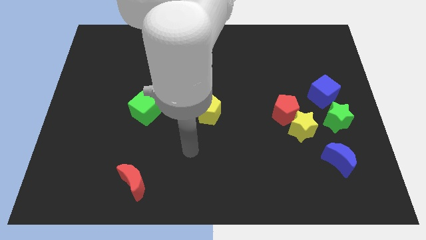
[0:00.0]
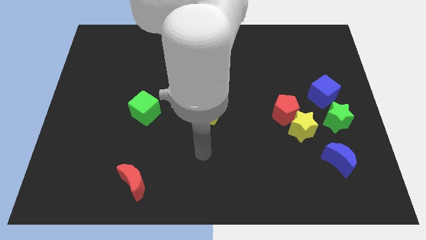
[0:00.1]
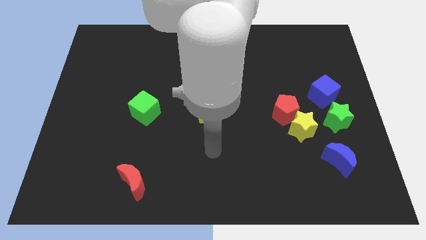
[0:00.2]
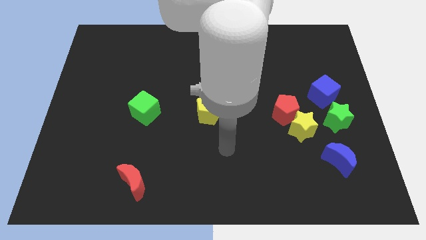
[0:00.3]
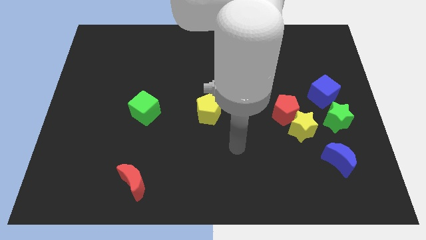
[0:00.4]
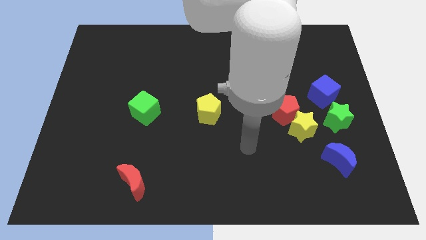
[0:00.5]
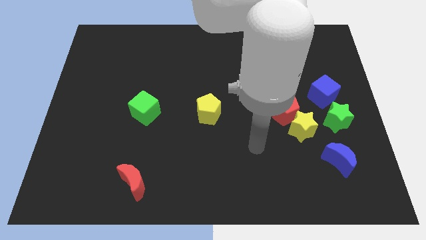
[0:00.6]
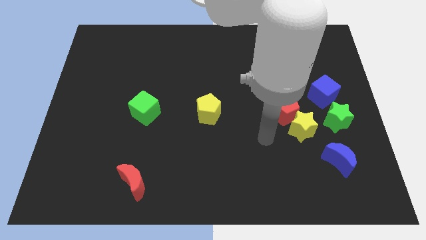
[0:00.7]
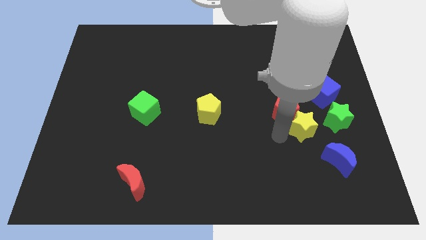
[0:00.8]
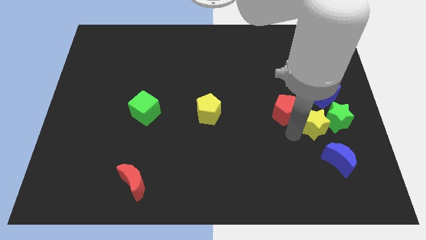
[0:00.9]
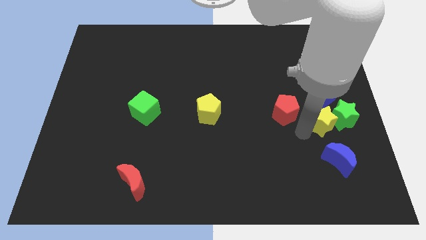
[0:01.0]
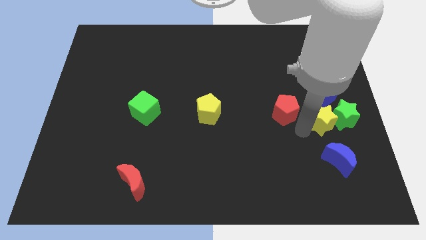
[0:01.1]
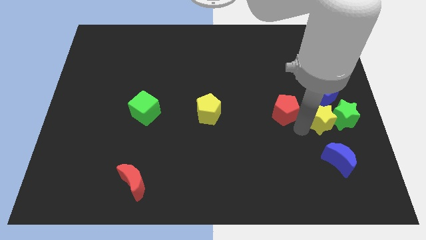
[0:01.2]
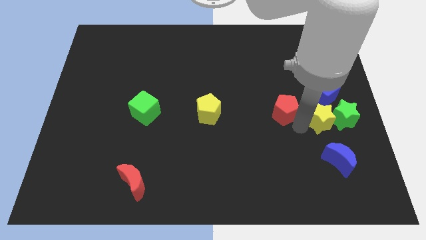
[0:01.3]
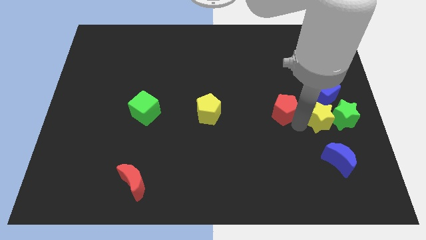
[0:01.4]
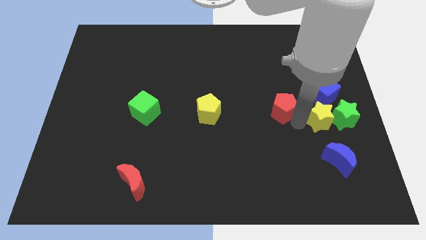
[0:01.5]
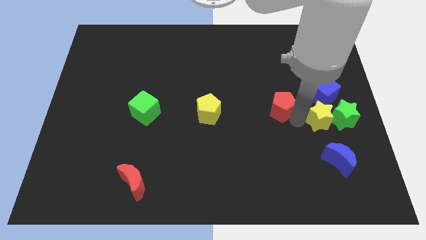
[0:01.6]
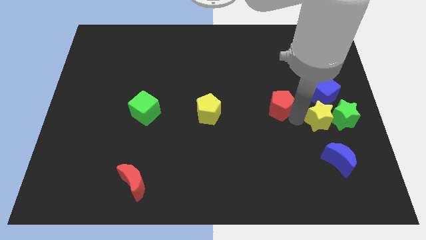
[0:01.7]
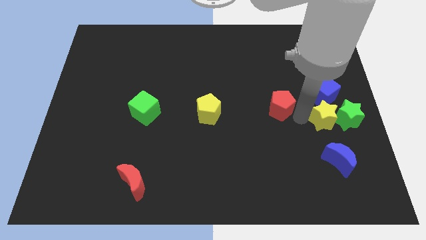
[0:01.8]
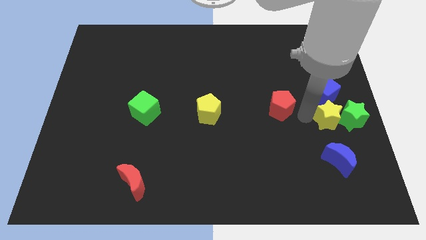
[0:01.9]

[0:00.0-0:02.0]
pull the red pentagon apart from the yellow star

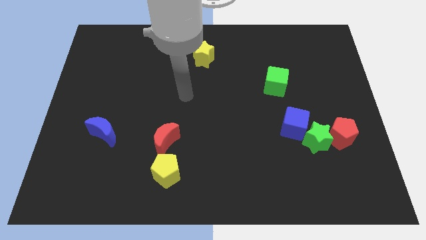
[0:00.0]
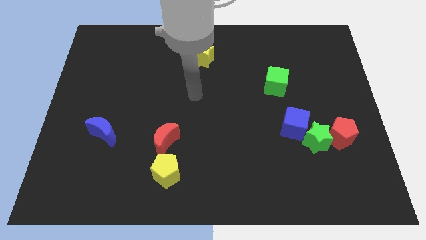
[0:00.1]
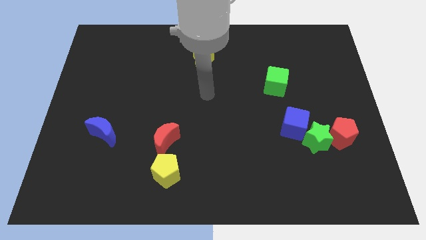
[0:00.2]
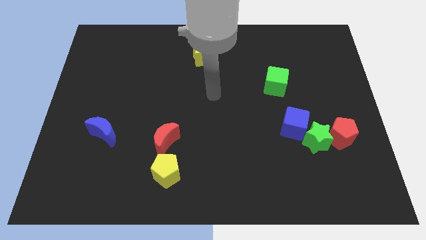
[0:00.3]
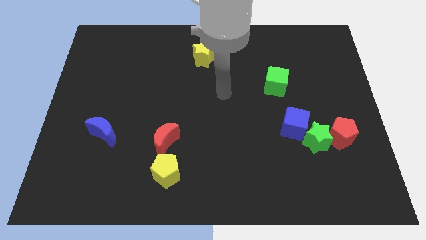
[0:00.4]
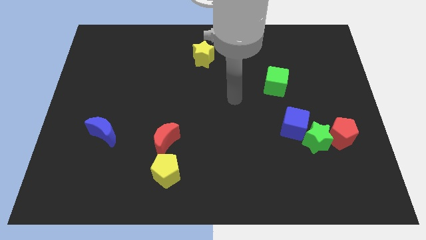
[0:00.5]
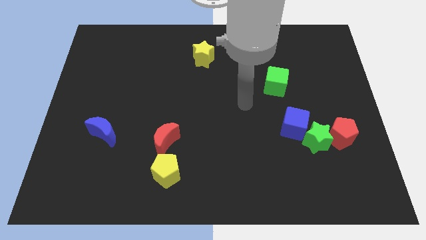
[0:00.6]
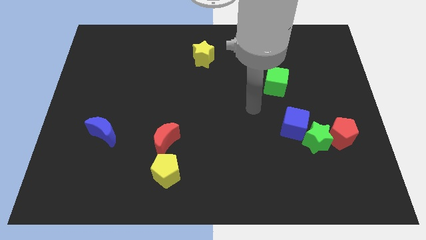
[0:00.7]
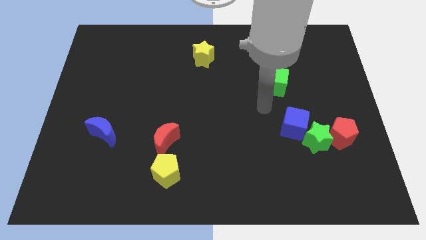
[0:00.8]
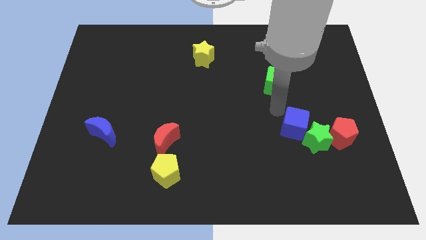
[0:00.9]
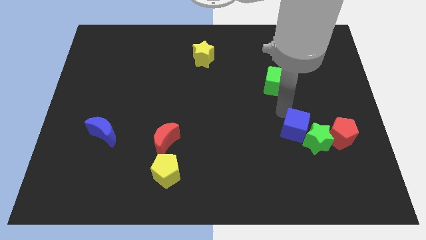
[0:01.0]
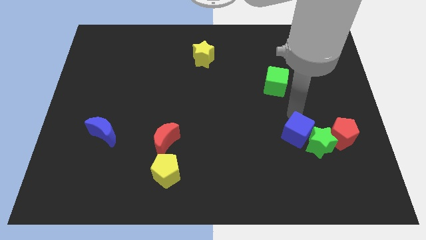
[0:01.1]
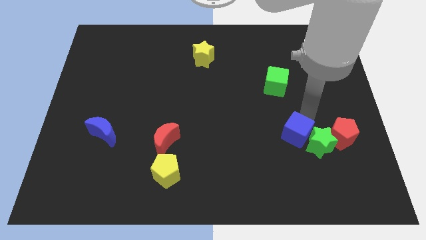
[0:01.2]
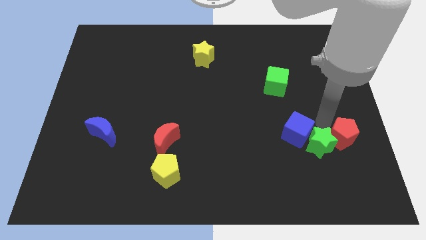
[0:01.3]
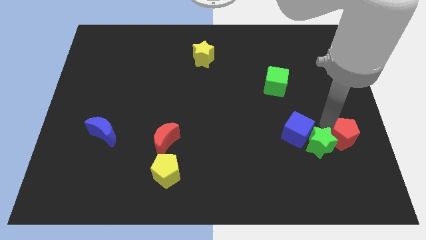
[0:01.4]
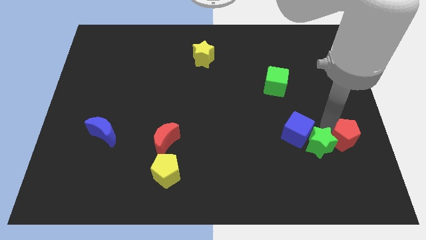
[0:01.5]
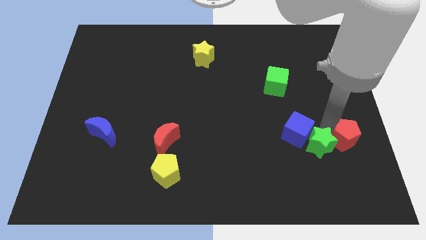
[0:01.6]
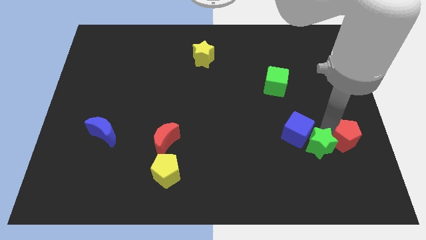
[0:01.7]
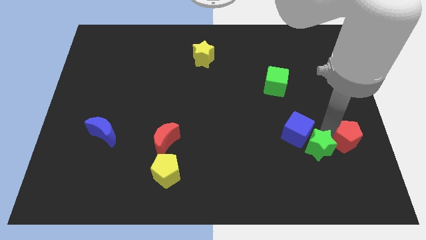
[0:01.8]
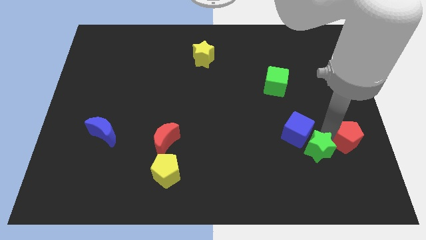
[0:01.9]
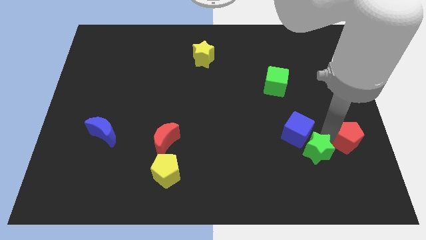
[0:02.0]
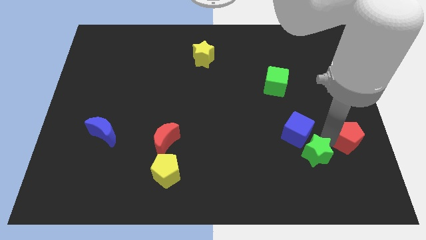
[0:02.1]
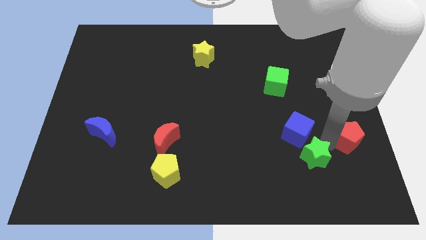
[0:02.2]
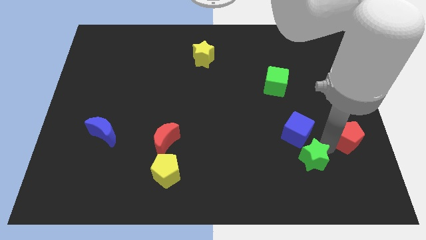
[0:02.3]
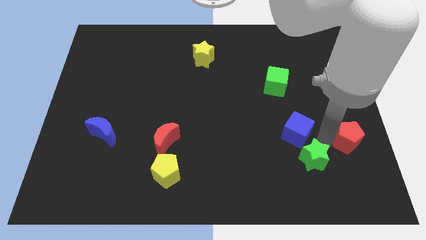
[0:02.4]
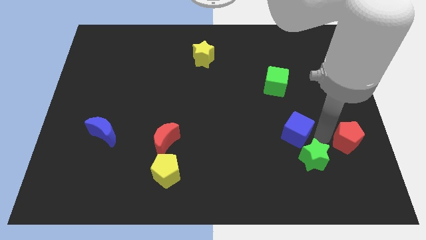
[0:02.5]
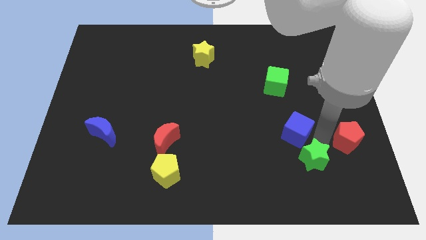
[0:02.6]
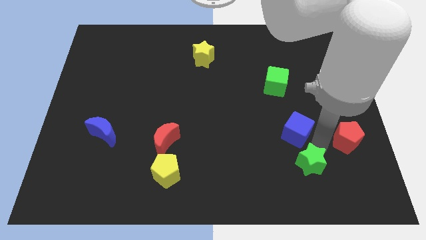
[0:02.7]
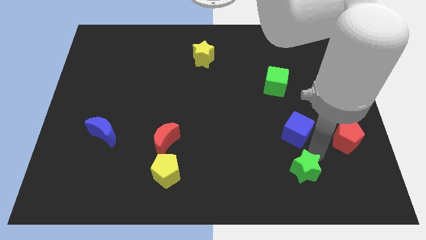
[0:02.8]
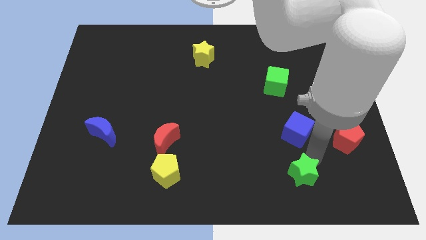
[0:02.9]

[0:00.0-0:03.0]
pull the green star apart from the red pentagon and blue cube

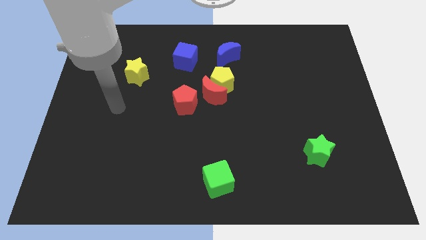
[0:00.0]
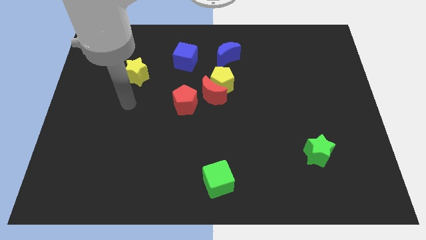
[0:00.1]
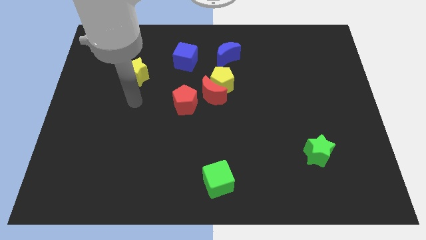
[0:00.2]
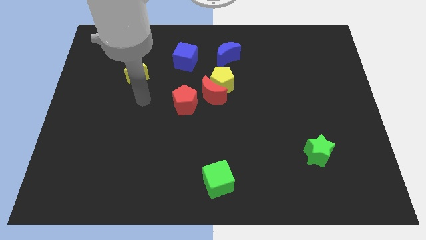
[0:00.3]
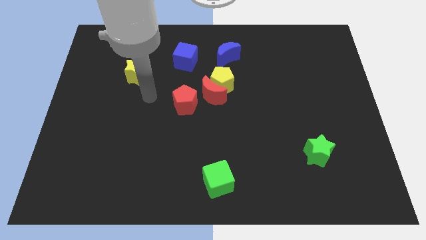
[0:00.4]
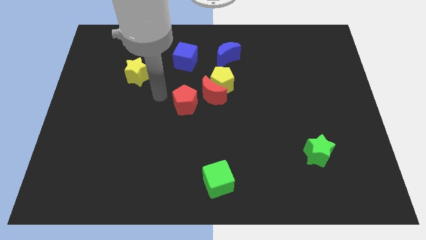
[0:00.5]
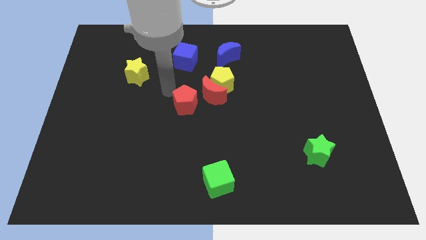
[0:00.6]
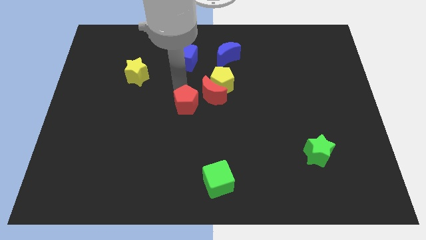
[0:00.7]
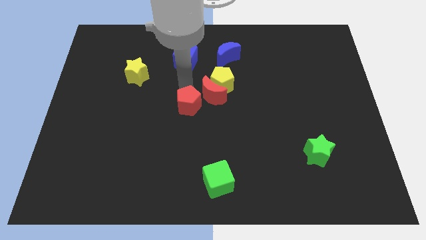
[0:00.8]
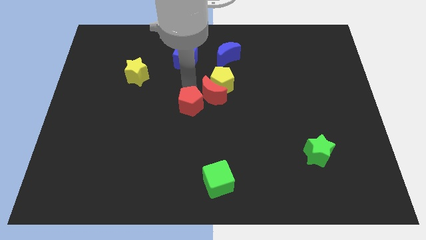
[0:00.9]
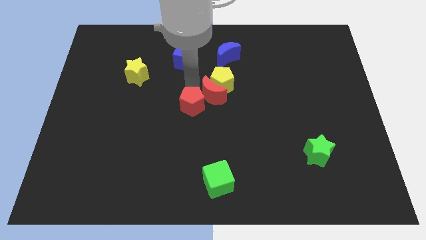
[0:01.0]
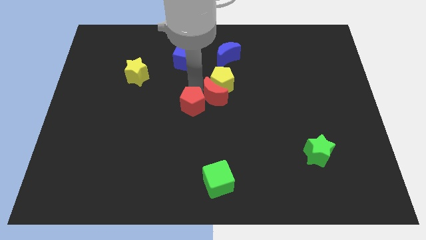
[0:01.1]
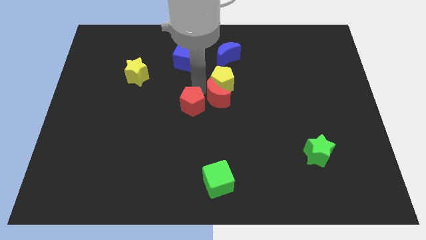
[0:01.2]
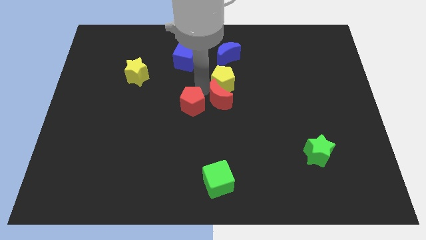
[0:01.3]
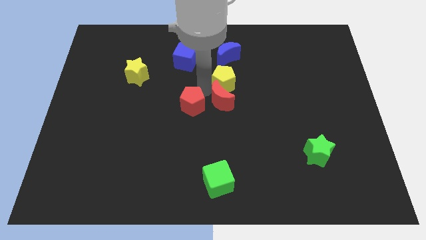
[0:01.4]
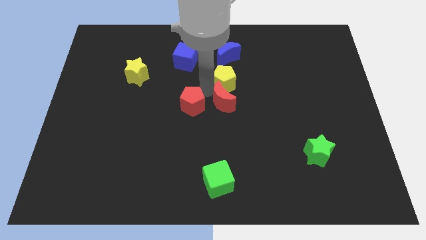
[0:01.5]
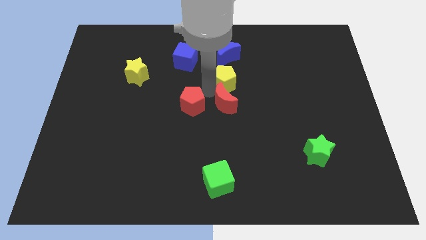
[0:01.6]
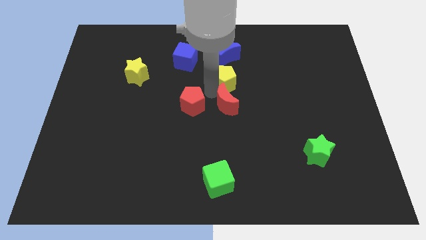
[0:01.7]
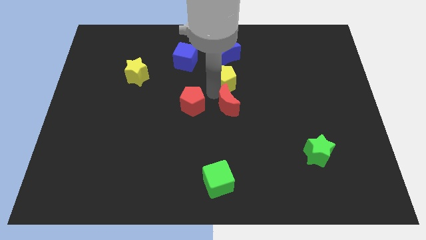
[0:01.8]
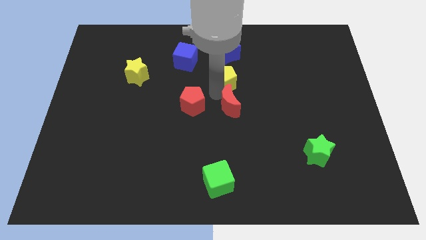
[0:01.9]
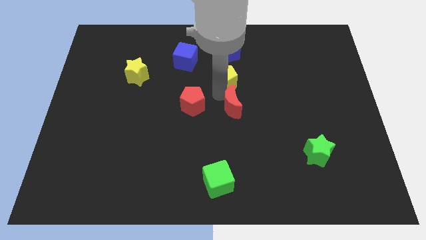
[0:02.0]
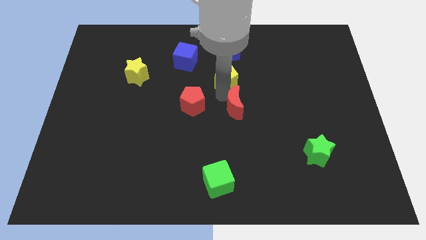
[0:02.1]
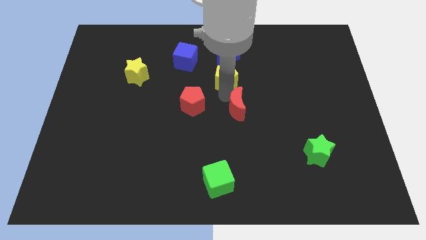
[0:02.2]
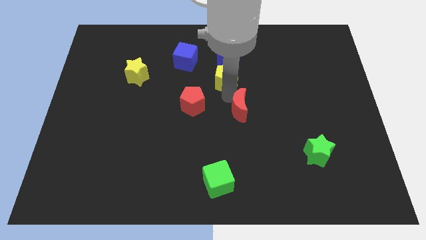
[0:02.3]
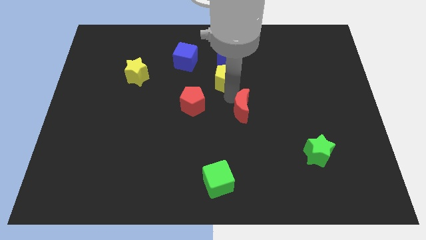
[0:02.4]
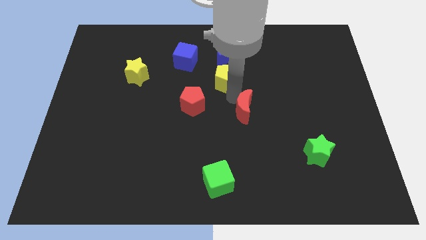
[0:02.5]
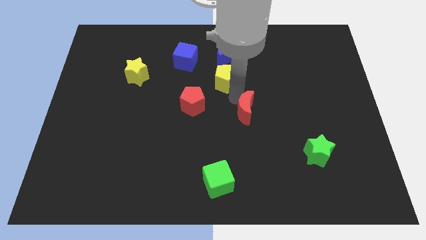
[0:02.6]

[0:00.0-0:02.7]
separate the red moon from the yellow pentagon and red pentagon

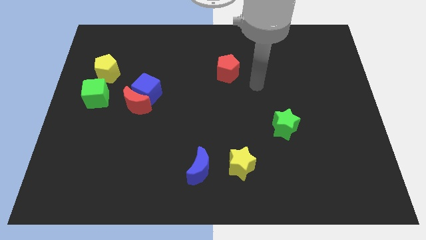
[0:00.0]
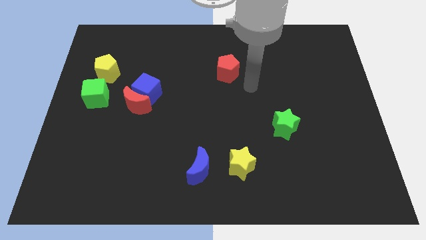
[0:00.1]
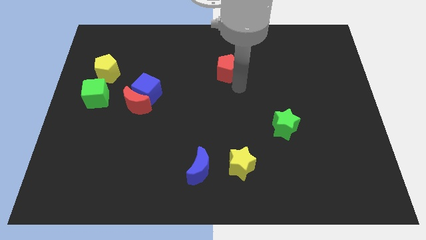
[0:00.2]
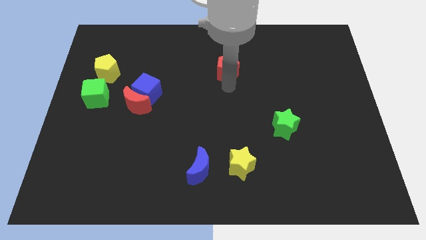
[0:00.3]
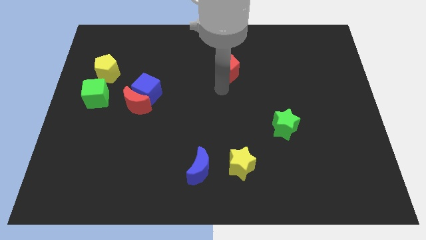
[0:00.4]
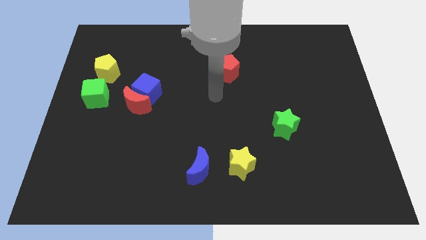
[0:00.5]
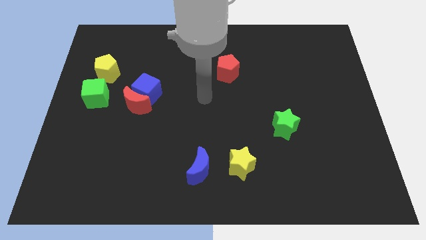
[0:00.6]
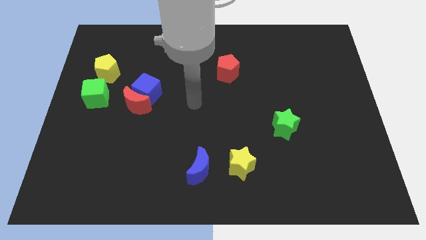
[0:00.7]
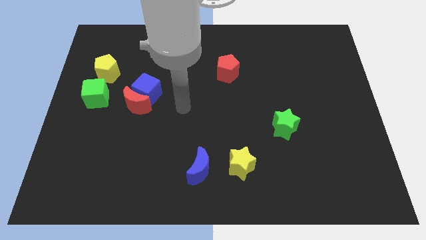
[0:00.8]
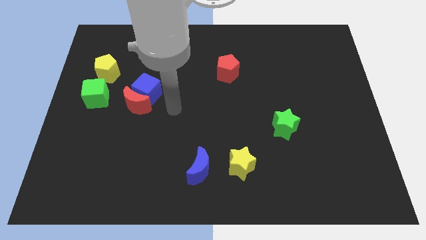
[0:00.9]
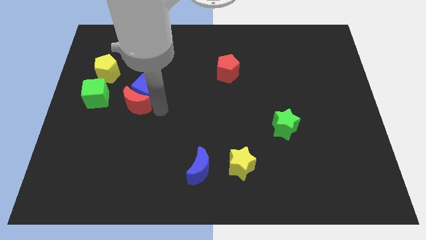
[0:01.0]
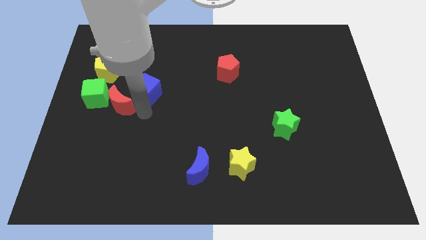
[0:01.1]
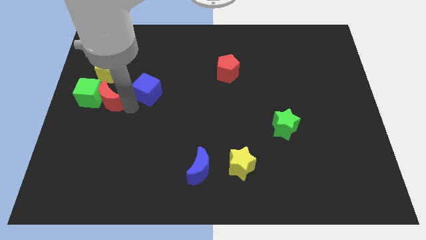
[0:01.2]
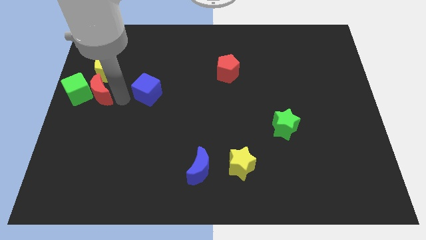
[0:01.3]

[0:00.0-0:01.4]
pull the blue cube apart from the red moon

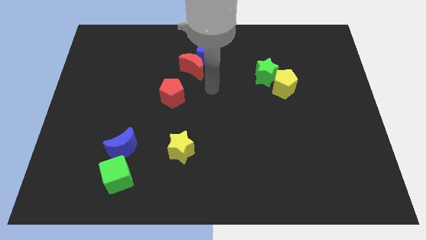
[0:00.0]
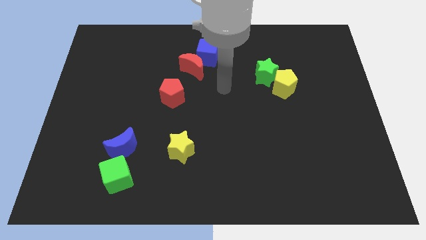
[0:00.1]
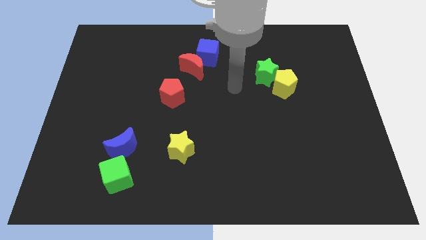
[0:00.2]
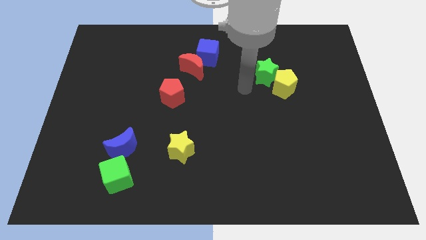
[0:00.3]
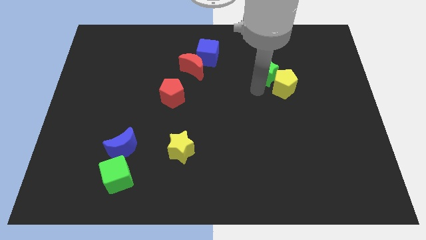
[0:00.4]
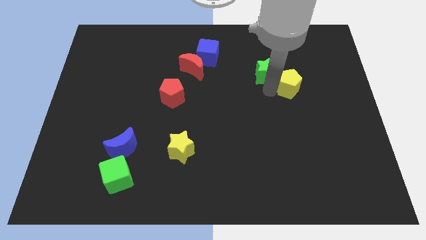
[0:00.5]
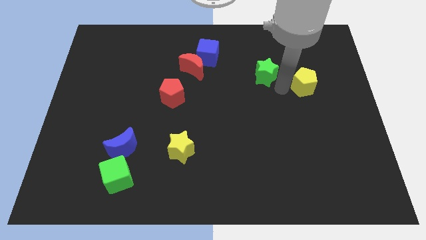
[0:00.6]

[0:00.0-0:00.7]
pull the green star apart from the yellow pentagon
